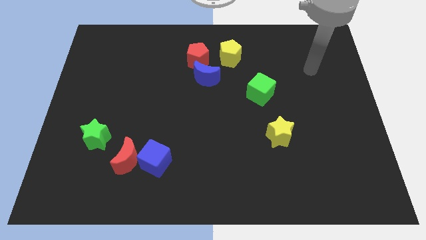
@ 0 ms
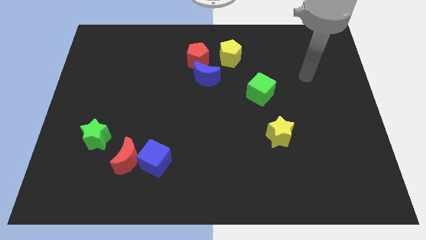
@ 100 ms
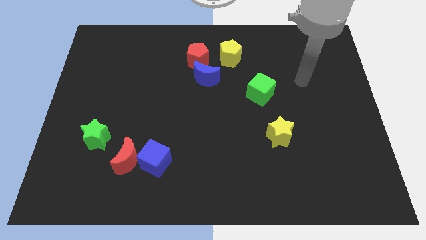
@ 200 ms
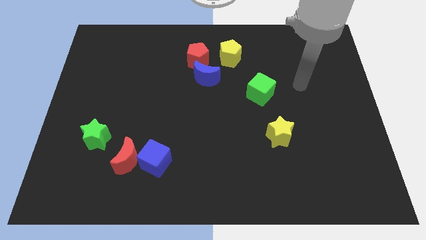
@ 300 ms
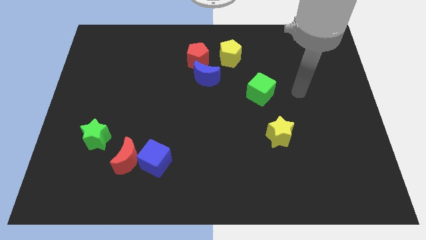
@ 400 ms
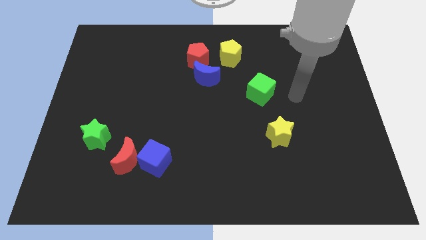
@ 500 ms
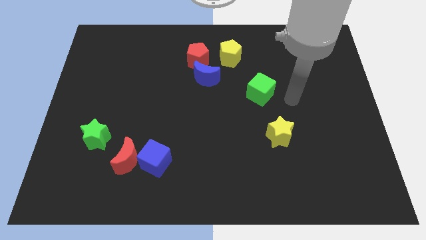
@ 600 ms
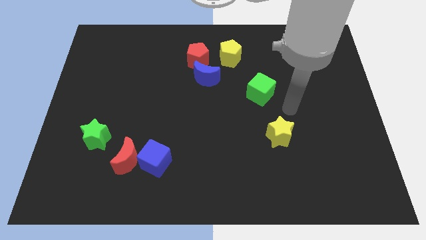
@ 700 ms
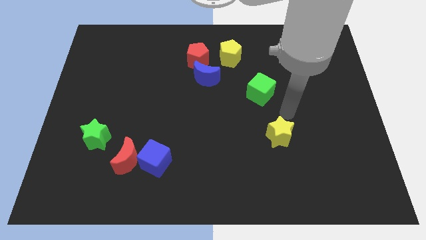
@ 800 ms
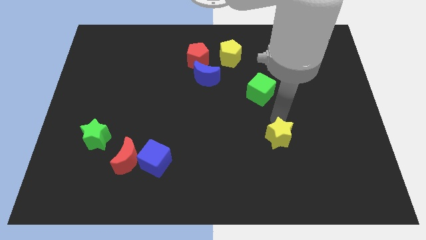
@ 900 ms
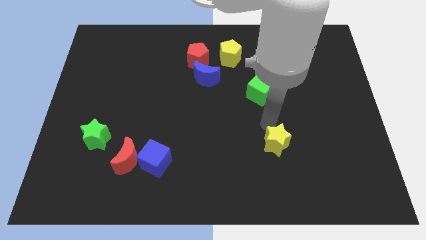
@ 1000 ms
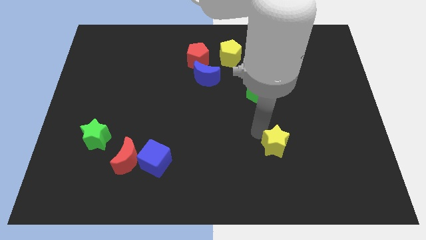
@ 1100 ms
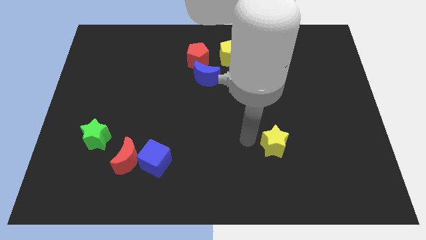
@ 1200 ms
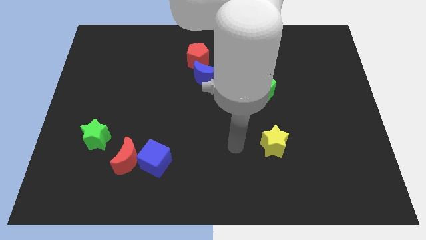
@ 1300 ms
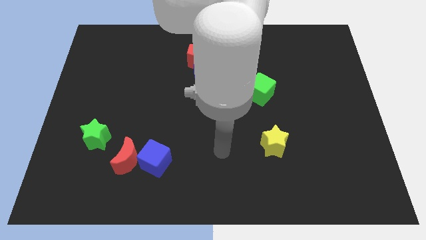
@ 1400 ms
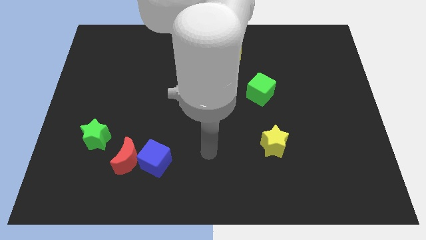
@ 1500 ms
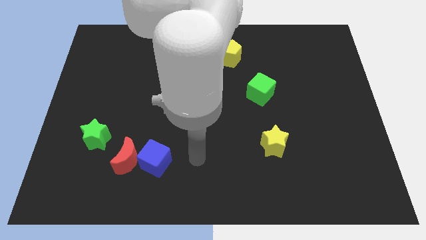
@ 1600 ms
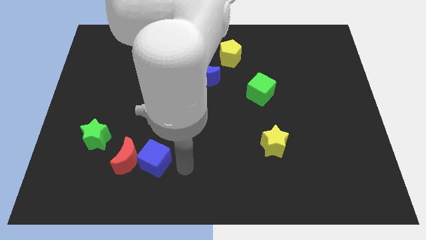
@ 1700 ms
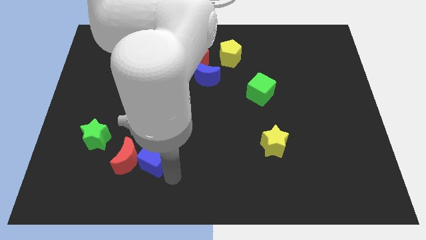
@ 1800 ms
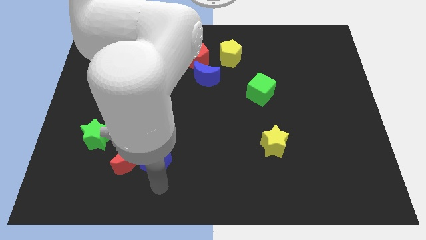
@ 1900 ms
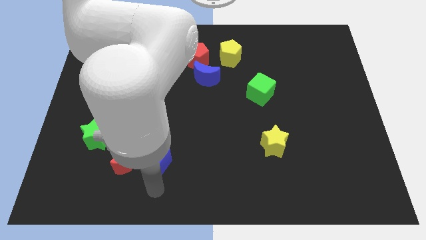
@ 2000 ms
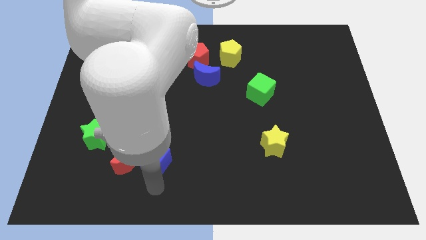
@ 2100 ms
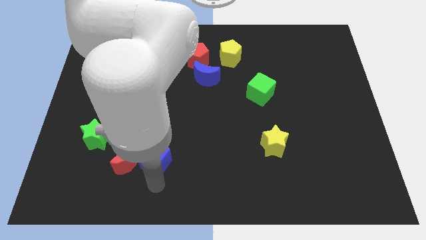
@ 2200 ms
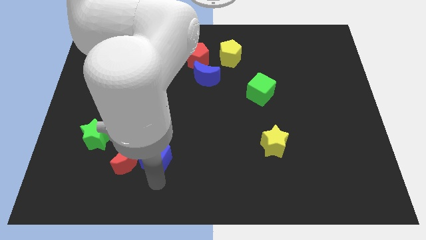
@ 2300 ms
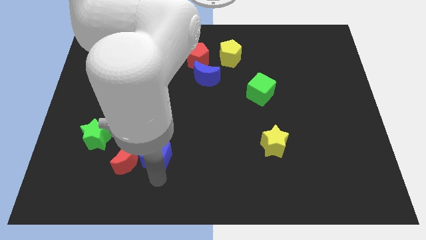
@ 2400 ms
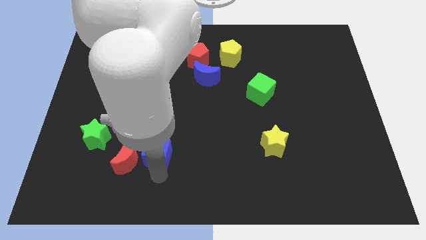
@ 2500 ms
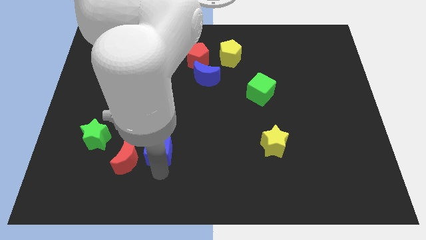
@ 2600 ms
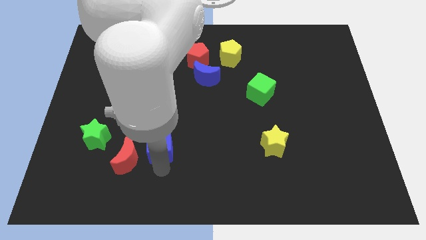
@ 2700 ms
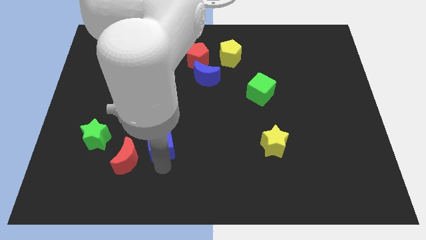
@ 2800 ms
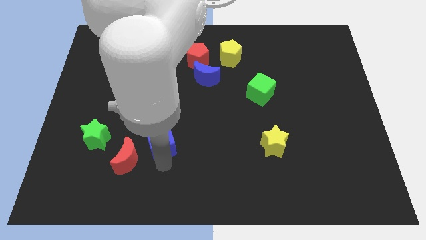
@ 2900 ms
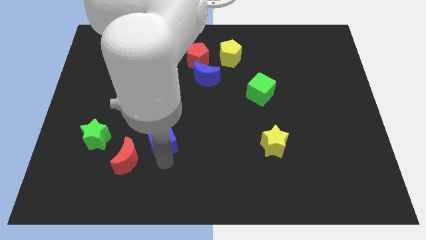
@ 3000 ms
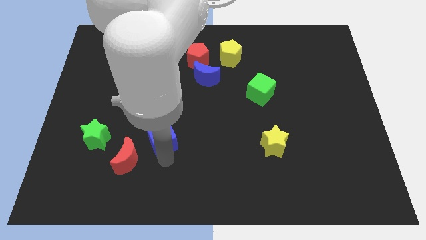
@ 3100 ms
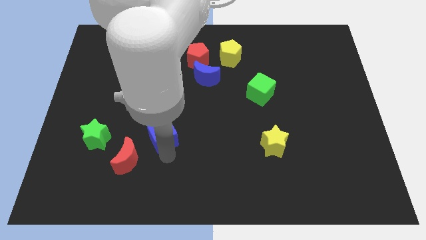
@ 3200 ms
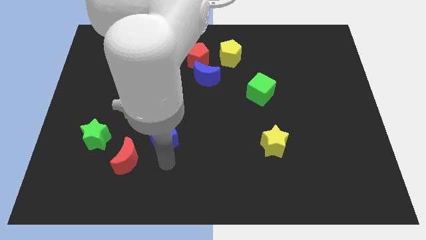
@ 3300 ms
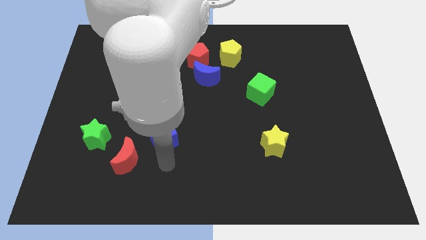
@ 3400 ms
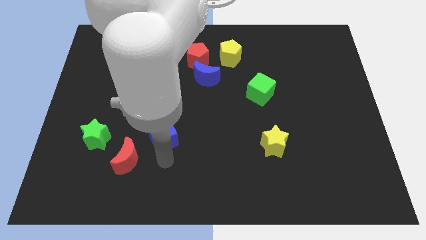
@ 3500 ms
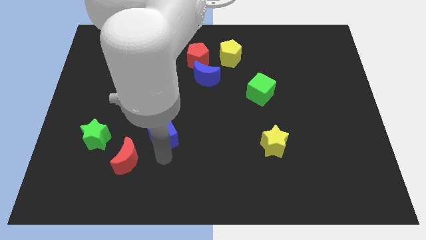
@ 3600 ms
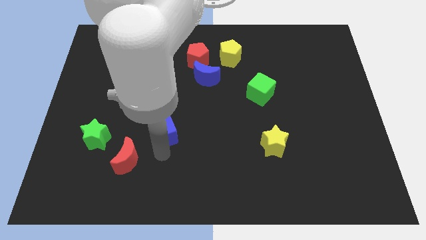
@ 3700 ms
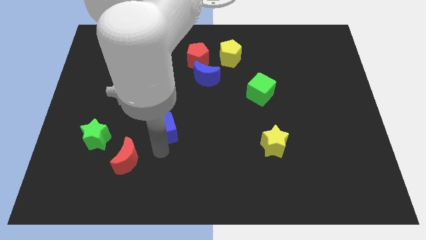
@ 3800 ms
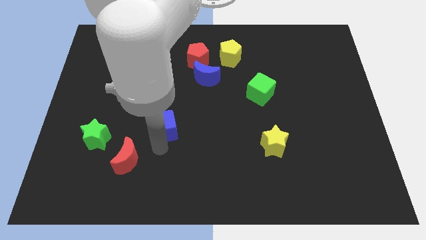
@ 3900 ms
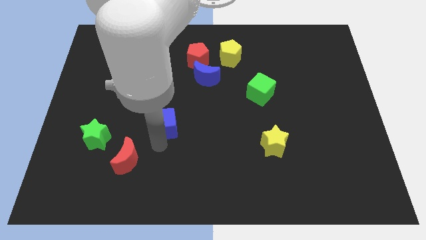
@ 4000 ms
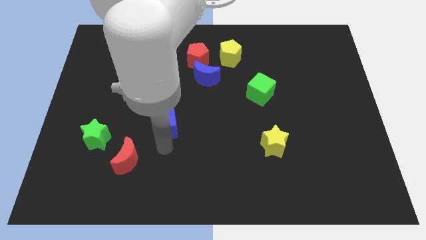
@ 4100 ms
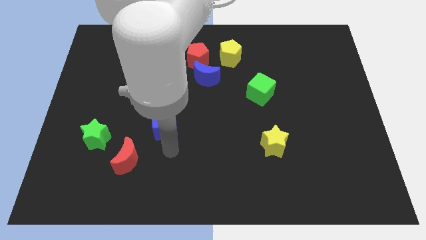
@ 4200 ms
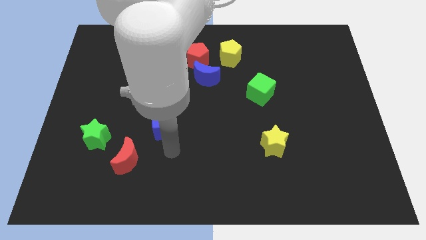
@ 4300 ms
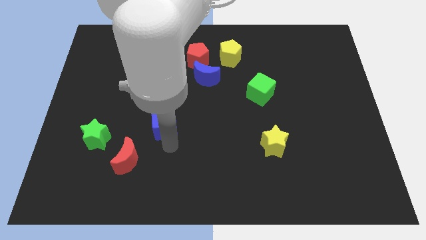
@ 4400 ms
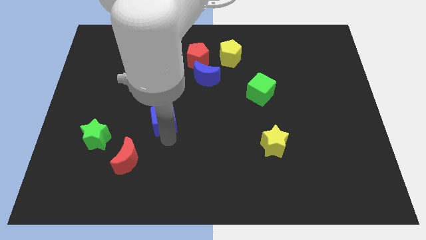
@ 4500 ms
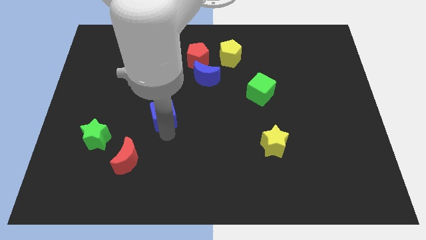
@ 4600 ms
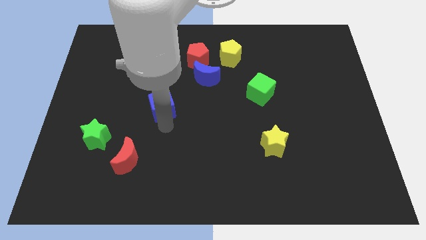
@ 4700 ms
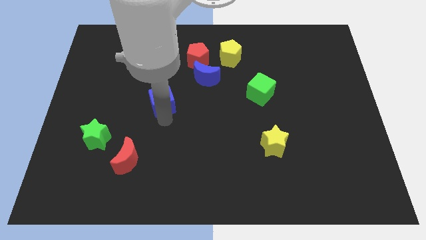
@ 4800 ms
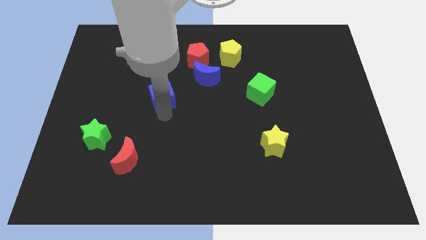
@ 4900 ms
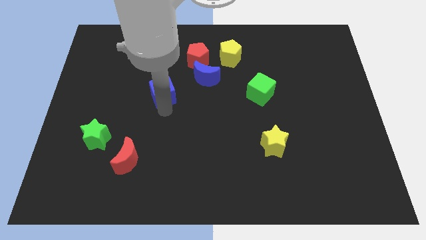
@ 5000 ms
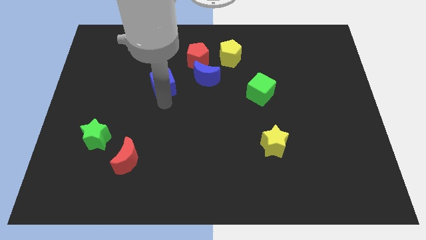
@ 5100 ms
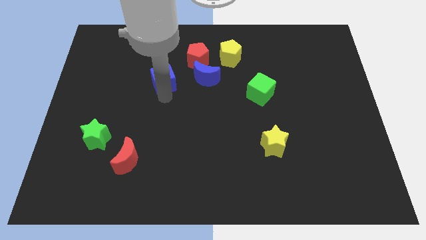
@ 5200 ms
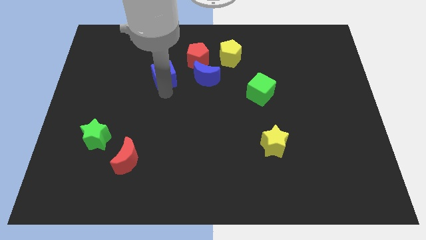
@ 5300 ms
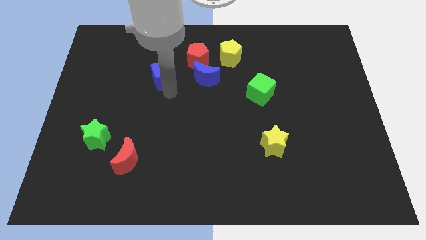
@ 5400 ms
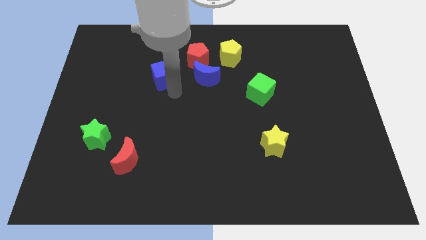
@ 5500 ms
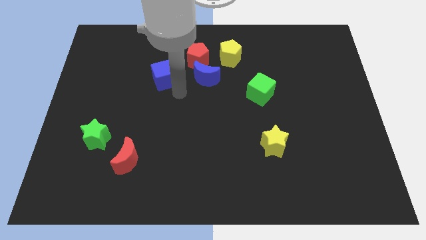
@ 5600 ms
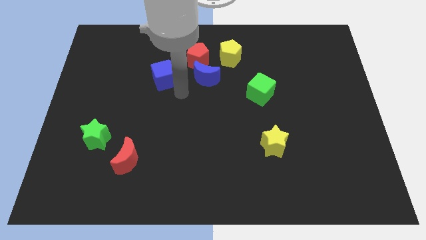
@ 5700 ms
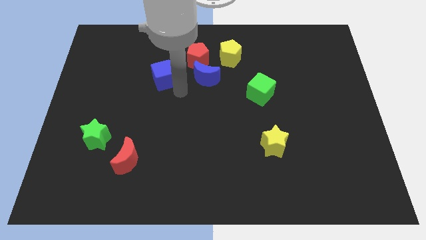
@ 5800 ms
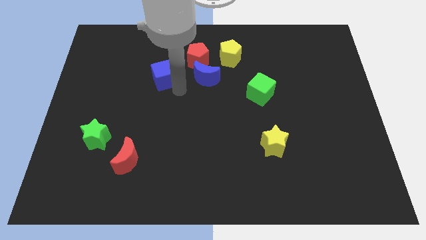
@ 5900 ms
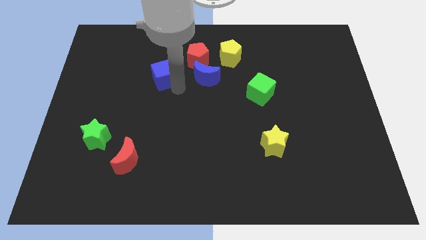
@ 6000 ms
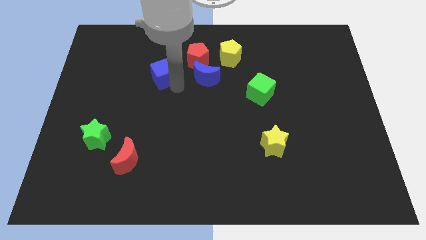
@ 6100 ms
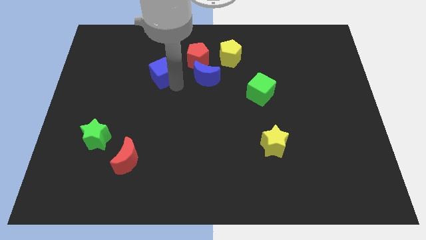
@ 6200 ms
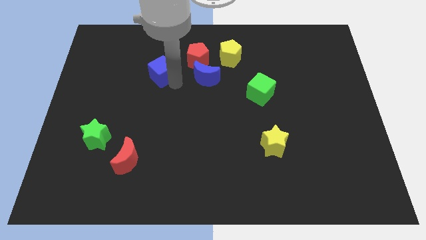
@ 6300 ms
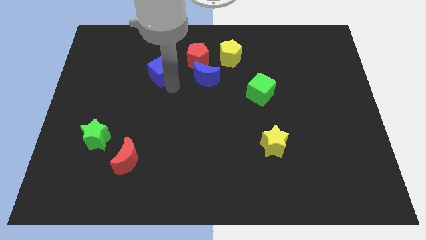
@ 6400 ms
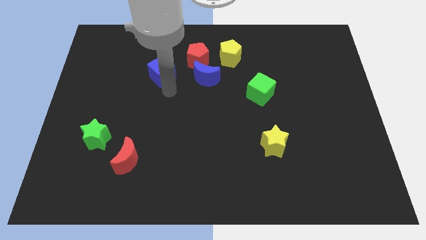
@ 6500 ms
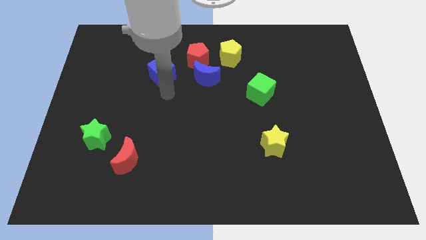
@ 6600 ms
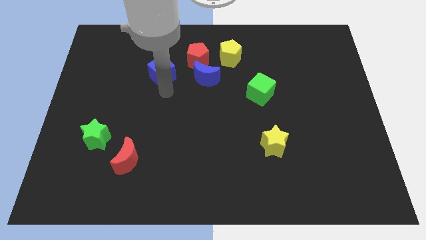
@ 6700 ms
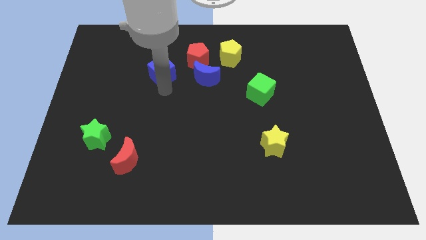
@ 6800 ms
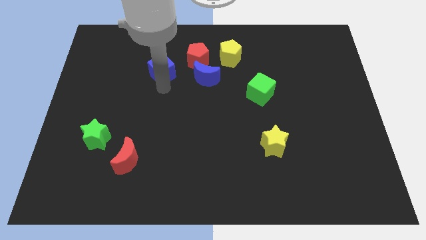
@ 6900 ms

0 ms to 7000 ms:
push the blue cube to the left of the red pentagon

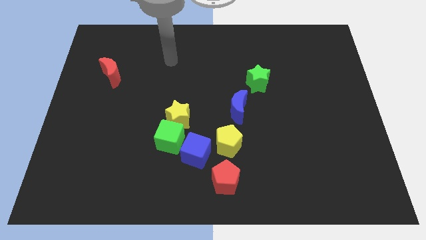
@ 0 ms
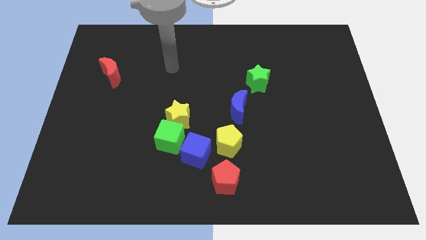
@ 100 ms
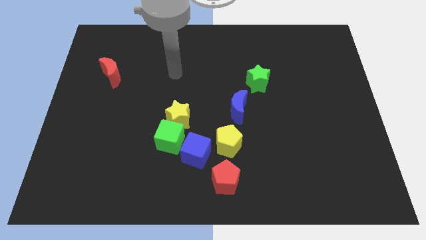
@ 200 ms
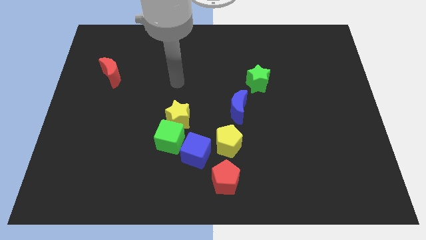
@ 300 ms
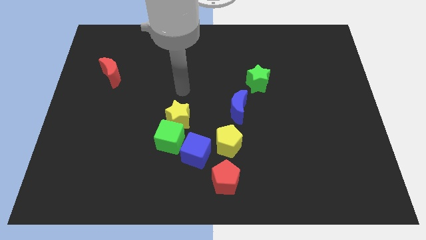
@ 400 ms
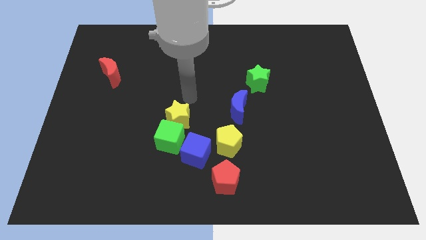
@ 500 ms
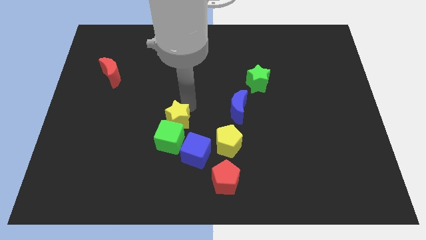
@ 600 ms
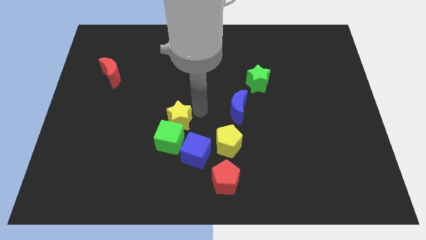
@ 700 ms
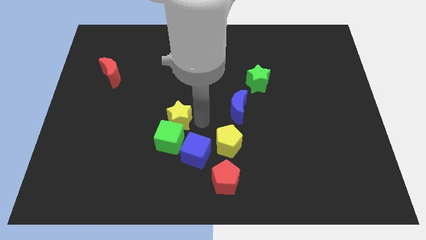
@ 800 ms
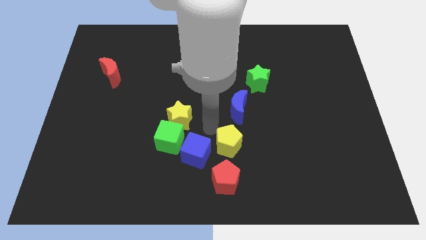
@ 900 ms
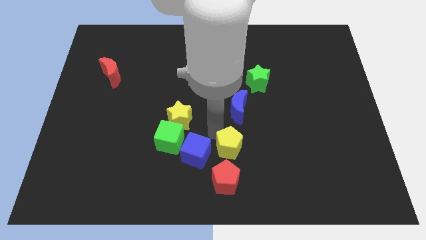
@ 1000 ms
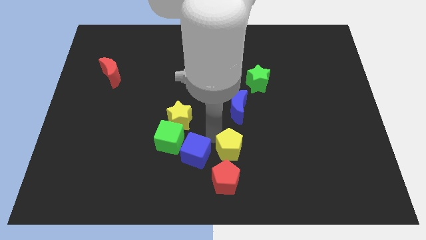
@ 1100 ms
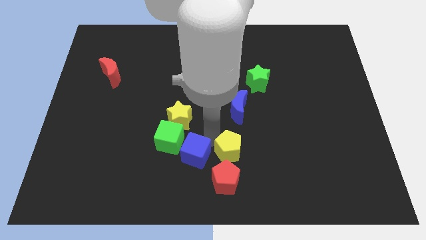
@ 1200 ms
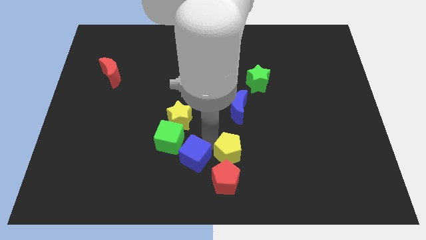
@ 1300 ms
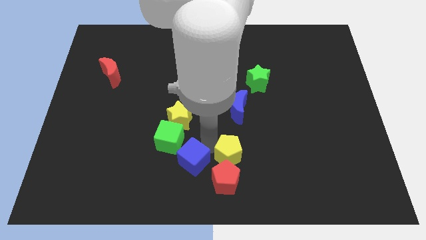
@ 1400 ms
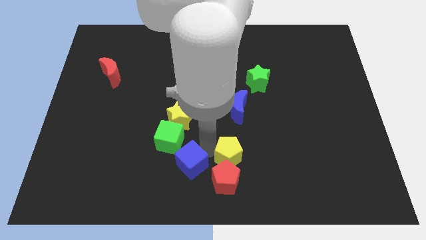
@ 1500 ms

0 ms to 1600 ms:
move the blue cube to the bottom side of the green cube
